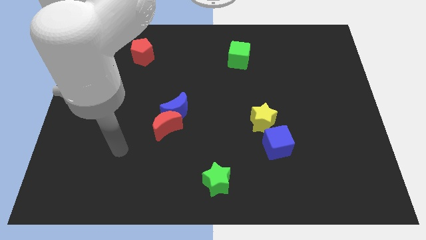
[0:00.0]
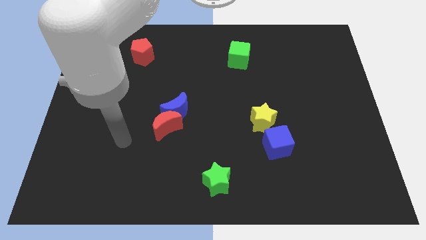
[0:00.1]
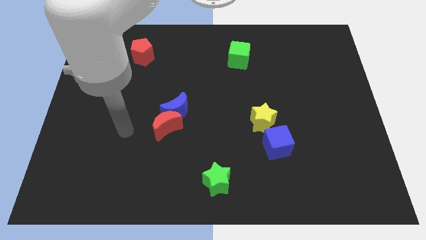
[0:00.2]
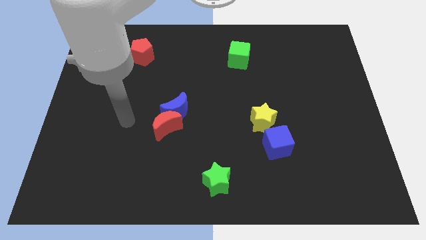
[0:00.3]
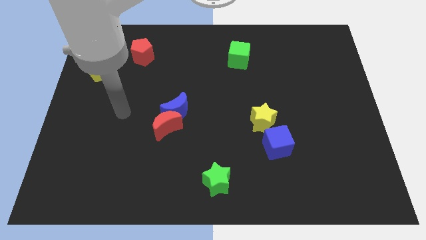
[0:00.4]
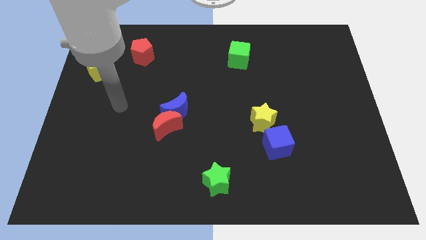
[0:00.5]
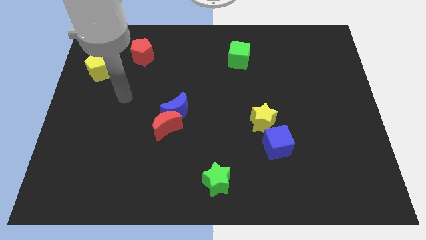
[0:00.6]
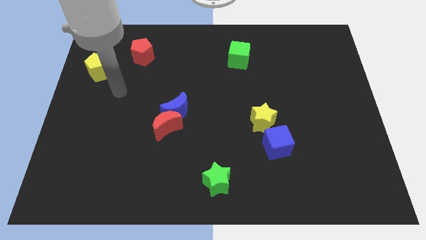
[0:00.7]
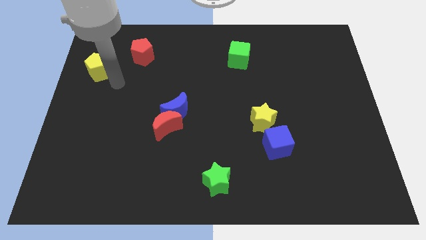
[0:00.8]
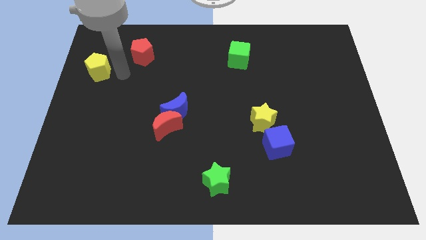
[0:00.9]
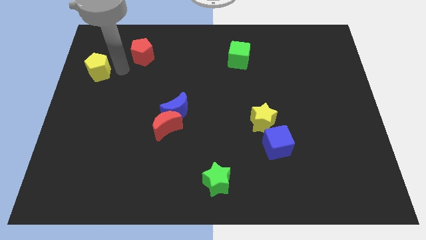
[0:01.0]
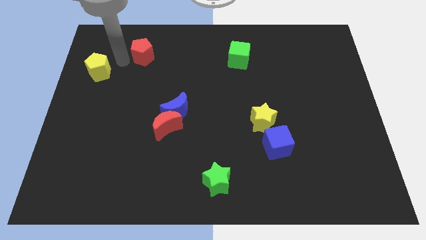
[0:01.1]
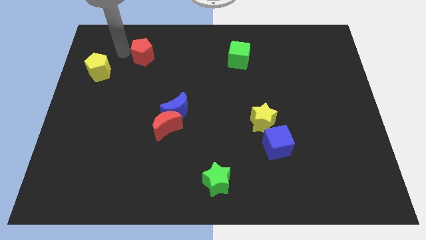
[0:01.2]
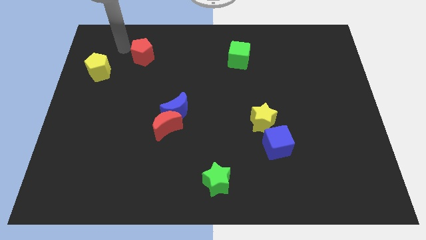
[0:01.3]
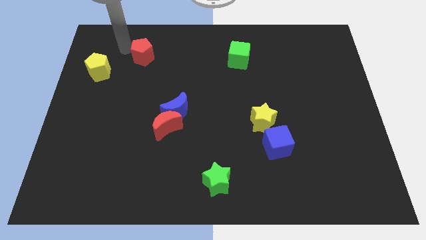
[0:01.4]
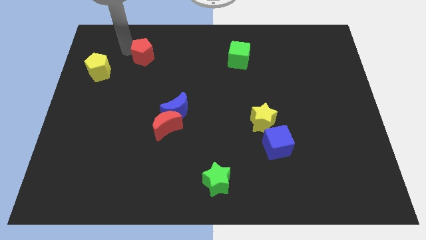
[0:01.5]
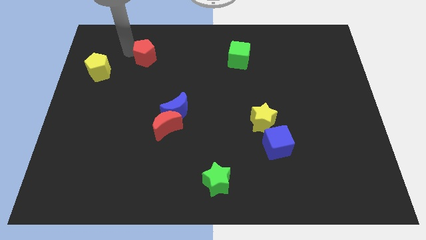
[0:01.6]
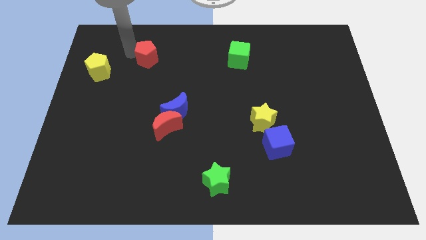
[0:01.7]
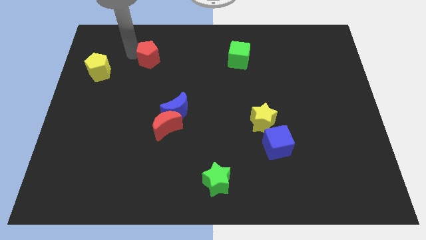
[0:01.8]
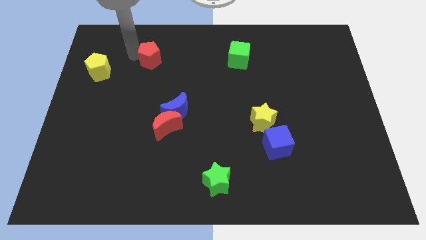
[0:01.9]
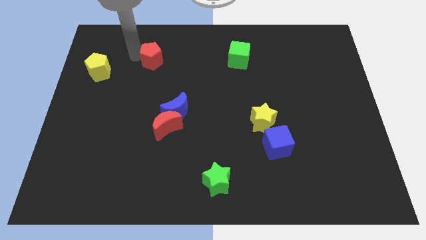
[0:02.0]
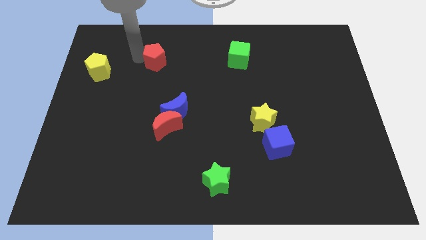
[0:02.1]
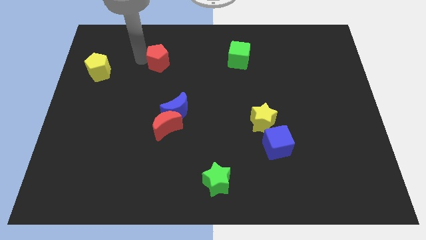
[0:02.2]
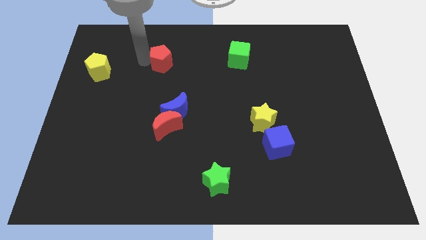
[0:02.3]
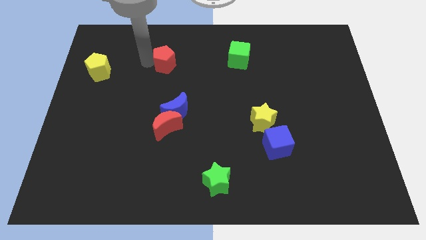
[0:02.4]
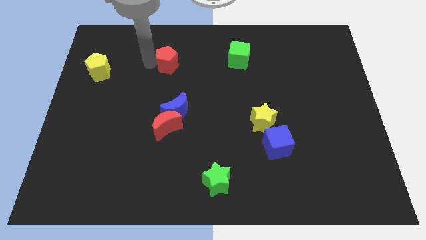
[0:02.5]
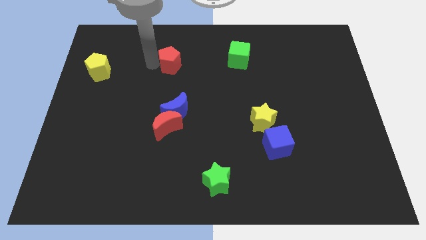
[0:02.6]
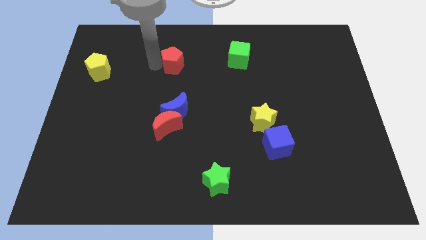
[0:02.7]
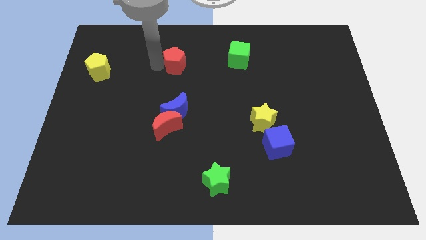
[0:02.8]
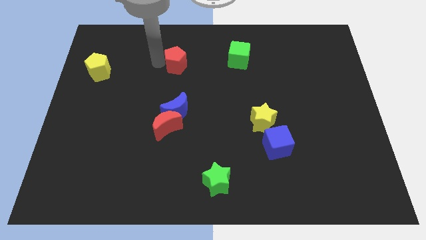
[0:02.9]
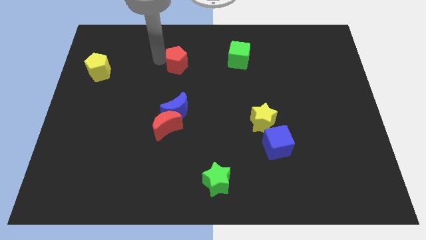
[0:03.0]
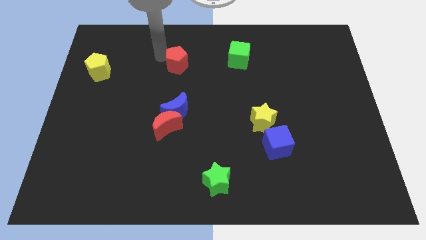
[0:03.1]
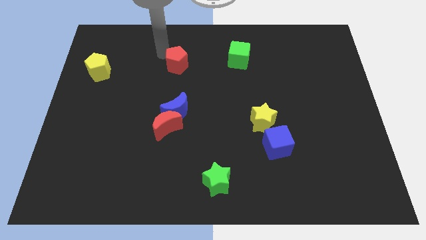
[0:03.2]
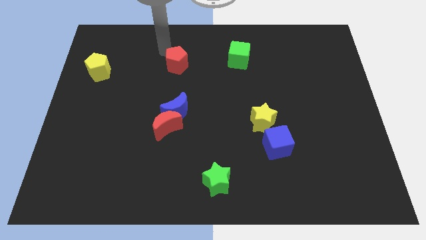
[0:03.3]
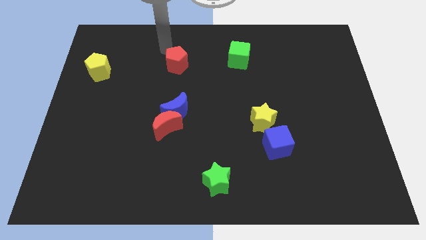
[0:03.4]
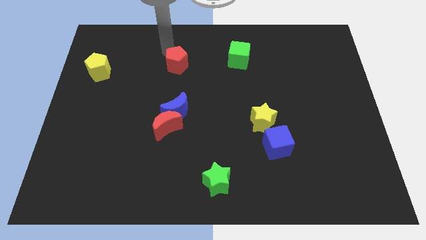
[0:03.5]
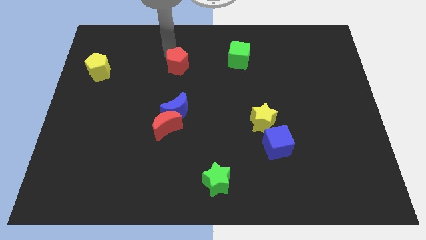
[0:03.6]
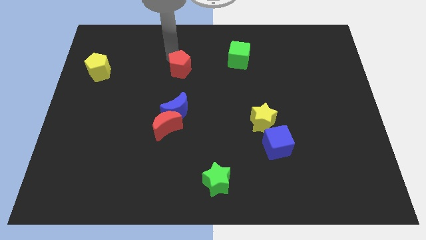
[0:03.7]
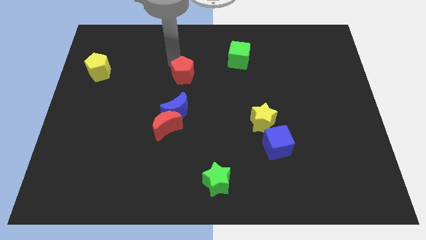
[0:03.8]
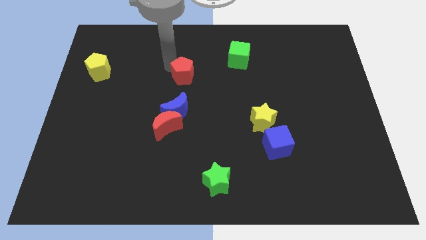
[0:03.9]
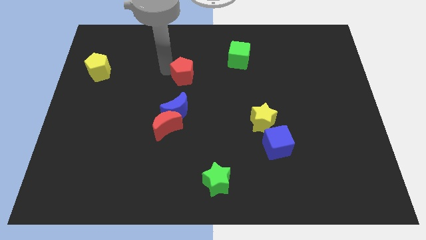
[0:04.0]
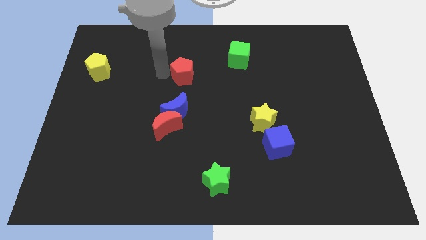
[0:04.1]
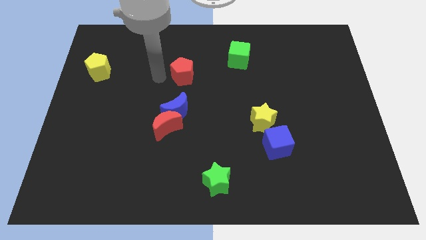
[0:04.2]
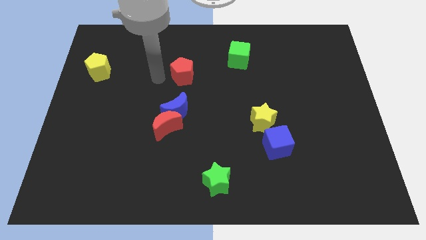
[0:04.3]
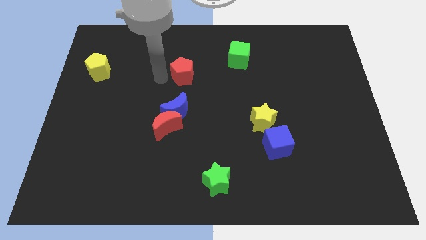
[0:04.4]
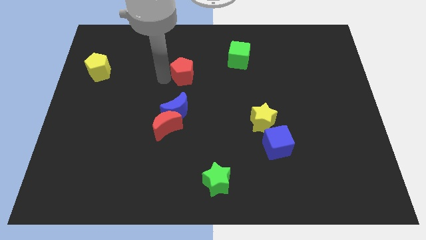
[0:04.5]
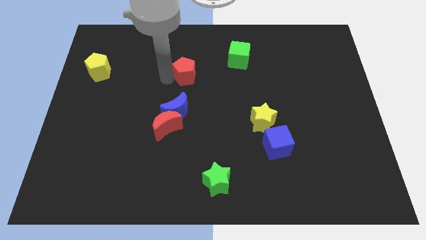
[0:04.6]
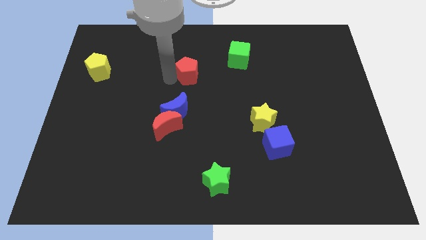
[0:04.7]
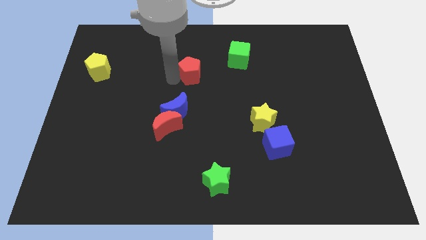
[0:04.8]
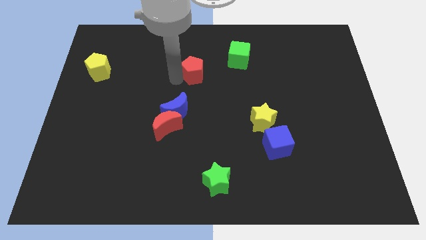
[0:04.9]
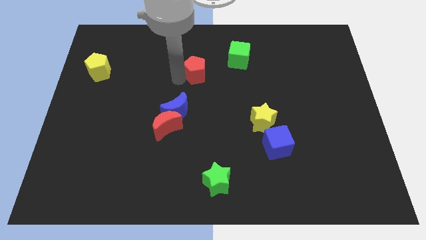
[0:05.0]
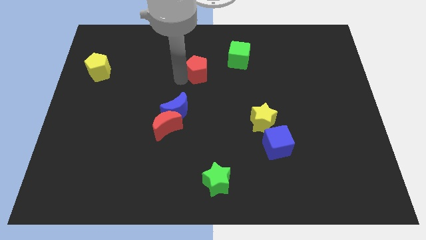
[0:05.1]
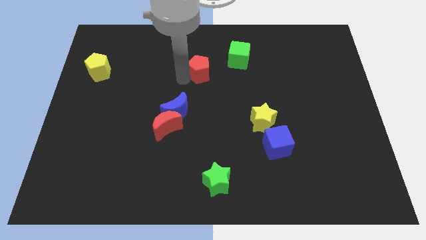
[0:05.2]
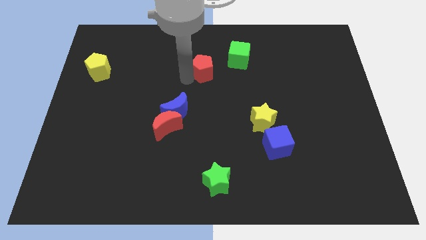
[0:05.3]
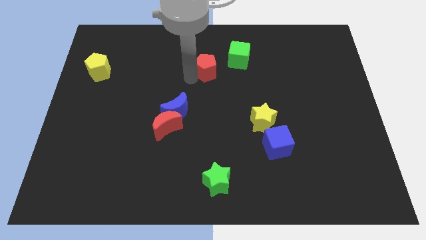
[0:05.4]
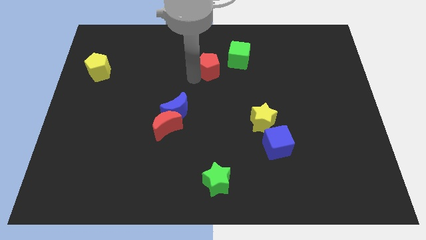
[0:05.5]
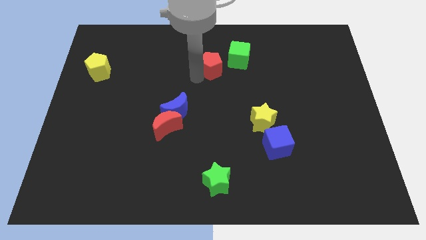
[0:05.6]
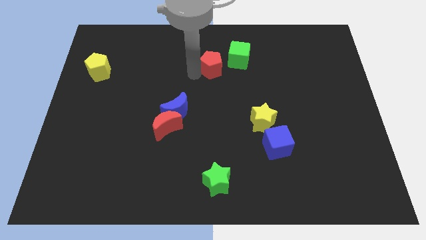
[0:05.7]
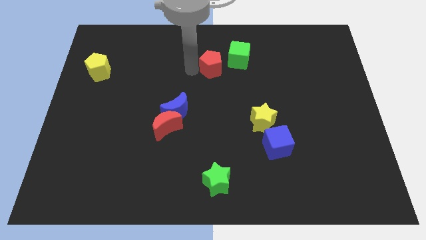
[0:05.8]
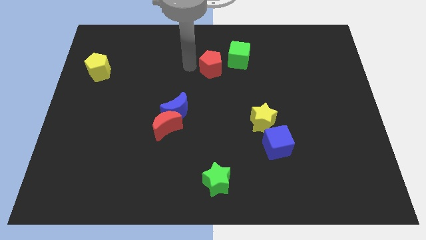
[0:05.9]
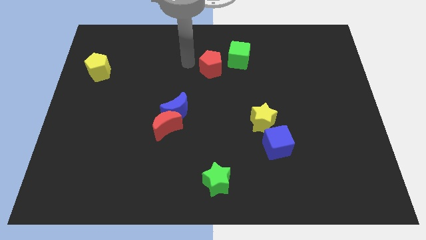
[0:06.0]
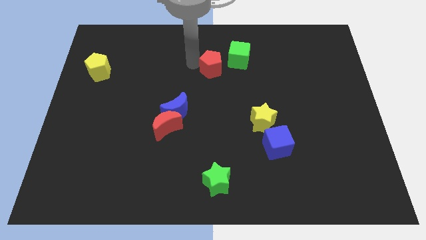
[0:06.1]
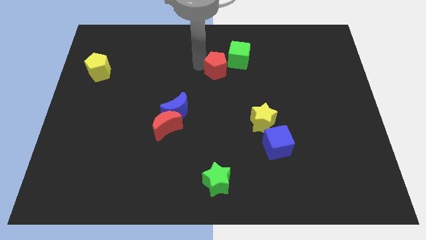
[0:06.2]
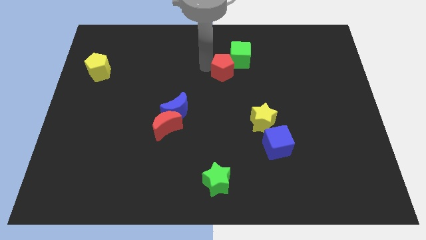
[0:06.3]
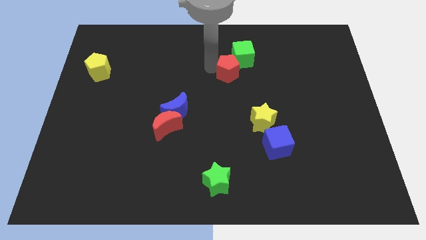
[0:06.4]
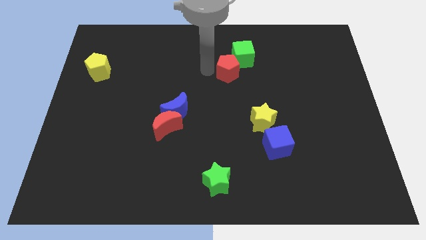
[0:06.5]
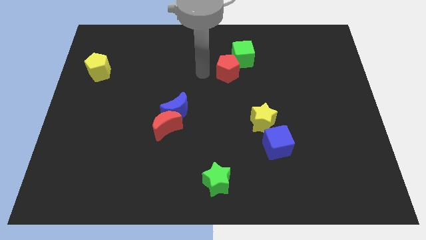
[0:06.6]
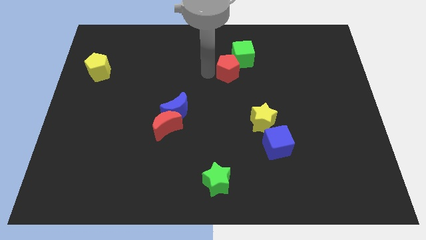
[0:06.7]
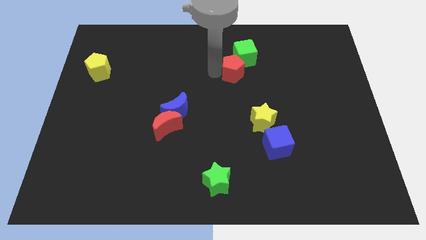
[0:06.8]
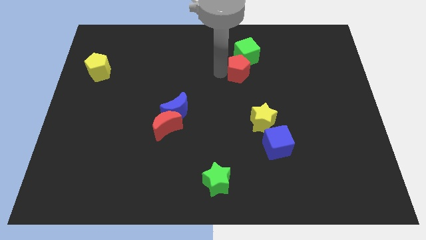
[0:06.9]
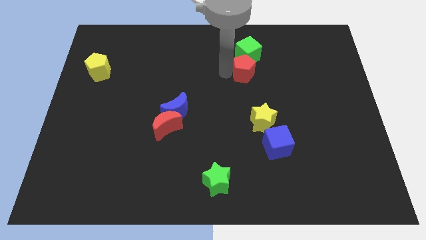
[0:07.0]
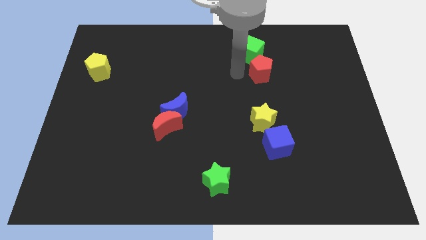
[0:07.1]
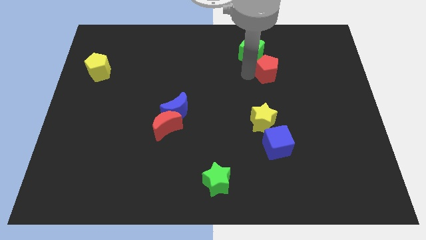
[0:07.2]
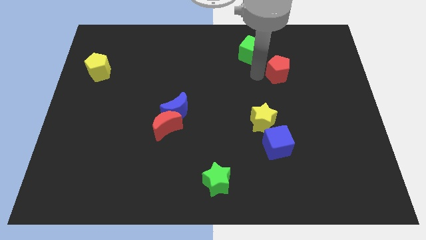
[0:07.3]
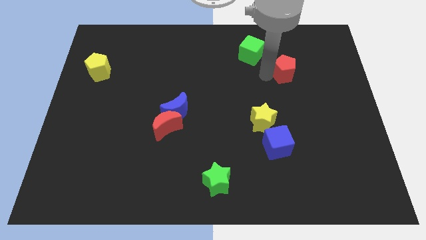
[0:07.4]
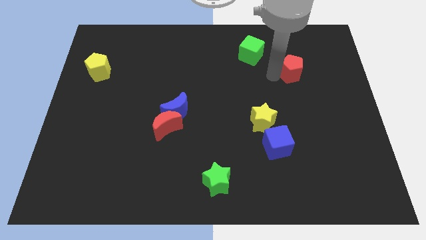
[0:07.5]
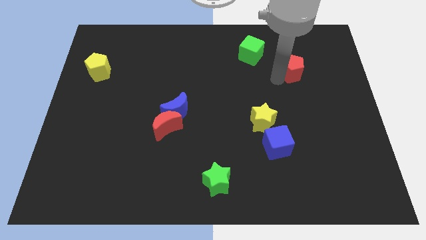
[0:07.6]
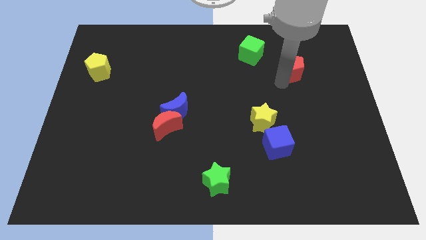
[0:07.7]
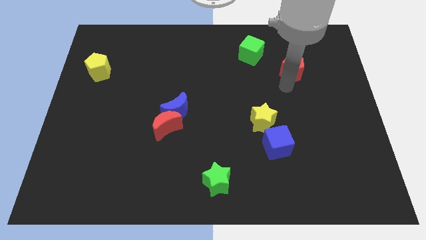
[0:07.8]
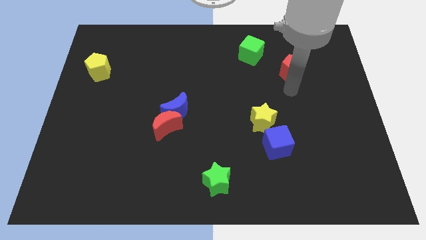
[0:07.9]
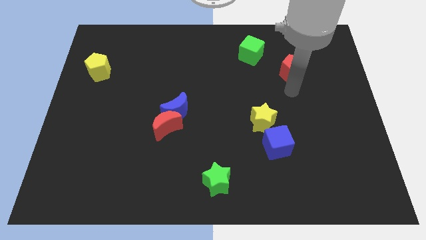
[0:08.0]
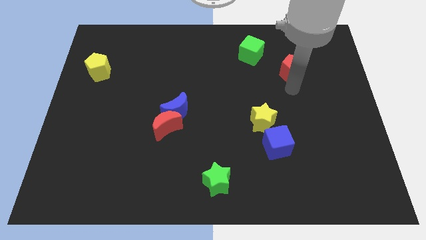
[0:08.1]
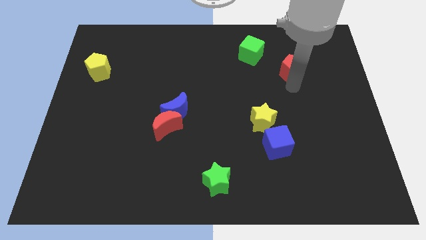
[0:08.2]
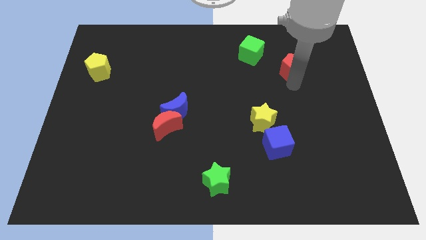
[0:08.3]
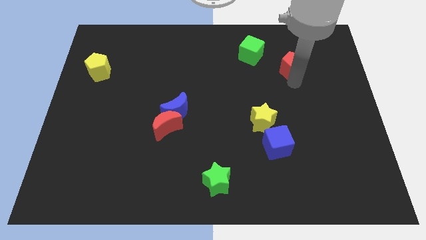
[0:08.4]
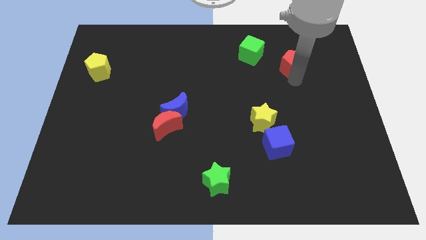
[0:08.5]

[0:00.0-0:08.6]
move the red pentagon to the right side of the green cube
